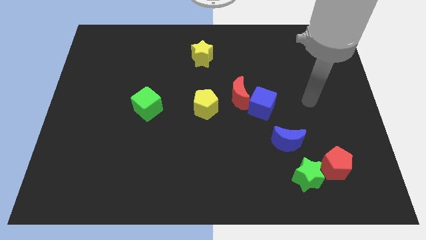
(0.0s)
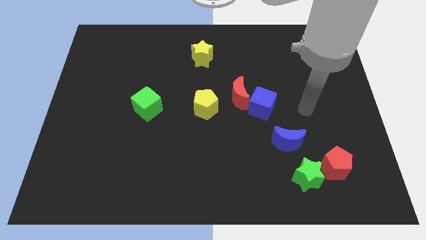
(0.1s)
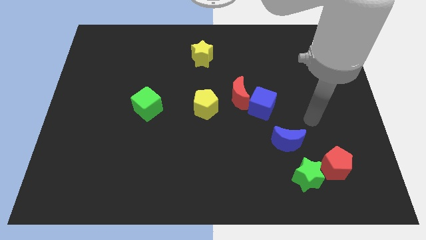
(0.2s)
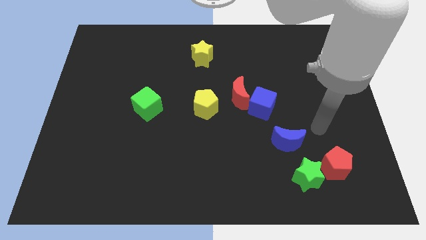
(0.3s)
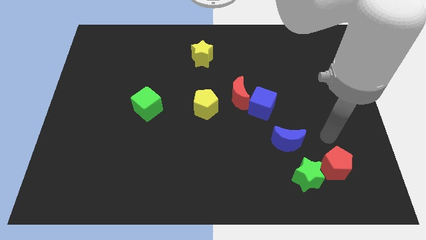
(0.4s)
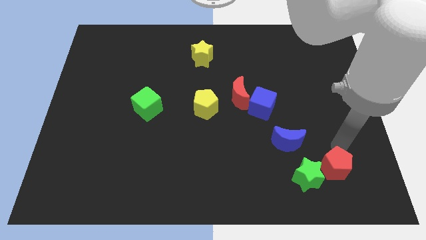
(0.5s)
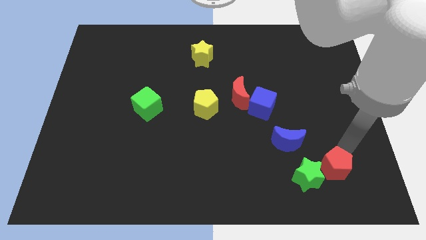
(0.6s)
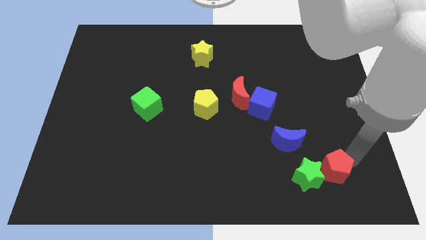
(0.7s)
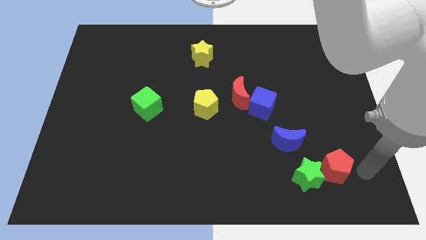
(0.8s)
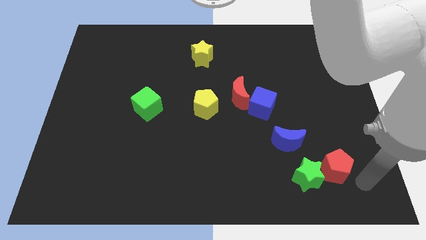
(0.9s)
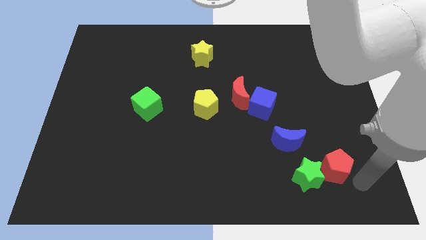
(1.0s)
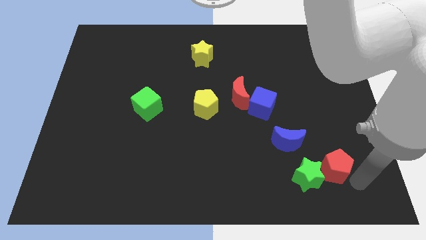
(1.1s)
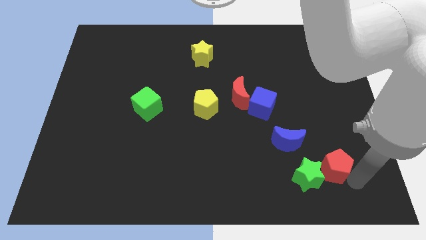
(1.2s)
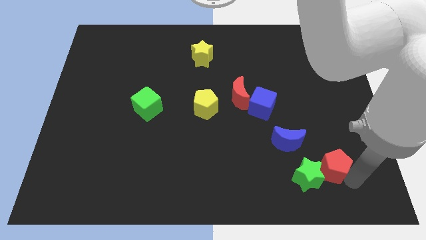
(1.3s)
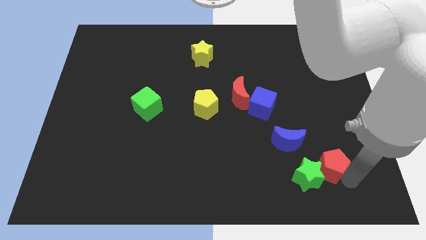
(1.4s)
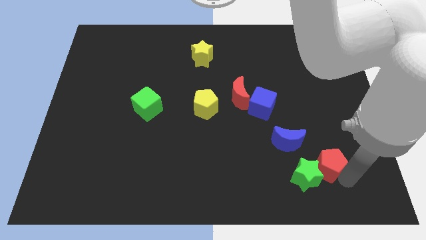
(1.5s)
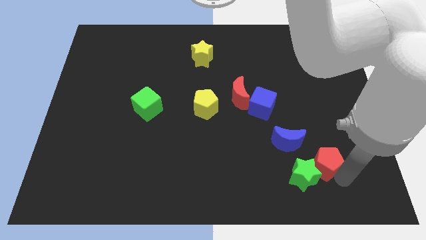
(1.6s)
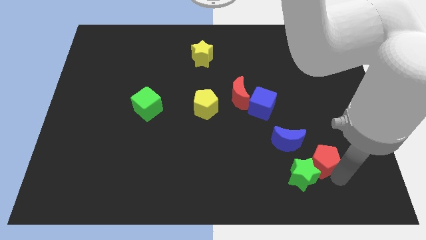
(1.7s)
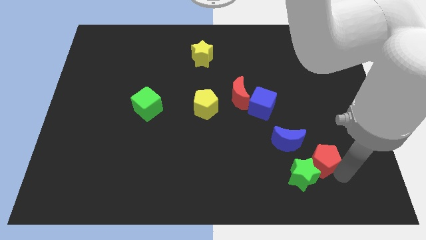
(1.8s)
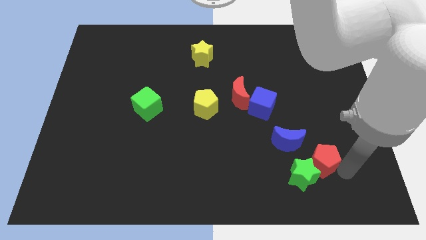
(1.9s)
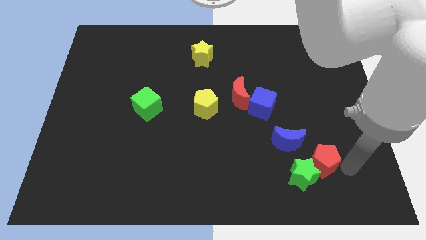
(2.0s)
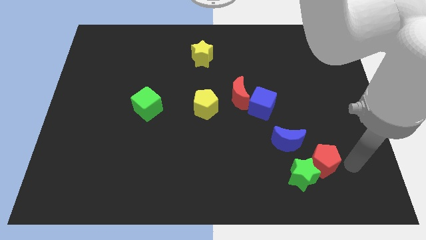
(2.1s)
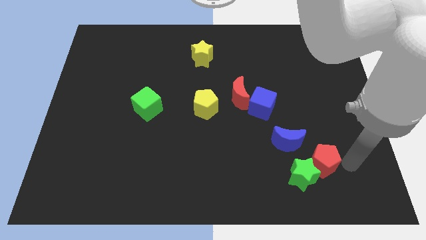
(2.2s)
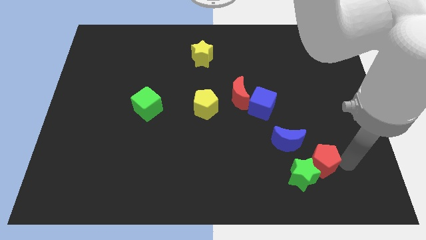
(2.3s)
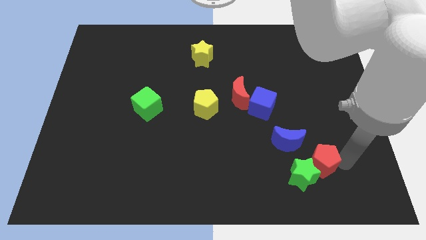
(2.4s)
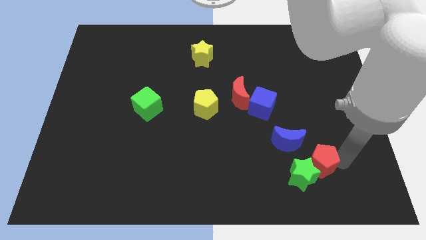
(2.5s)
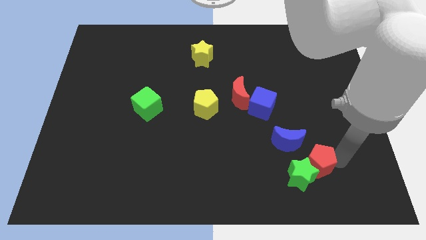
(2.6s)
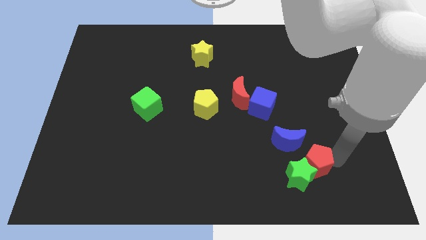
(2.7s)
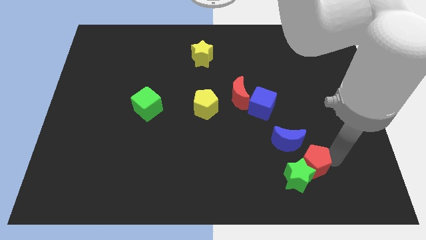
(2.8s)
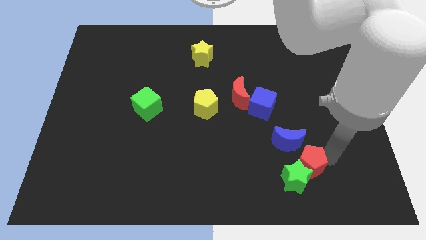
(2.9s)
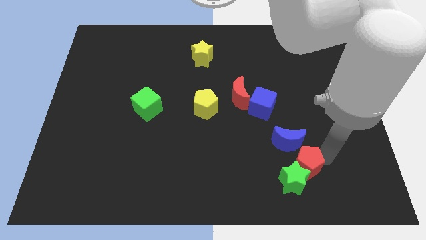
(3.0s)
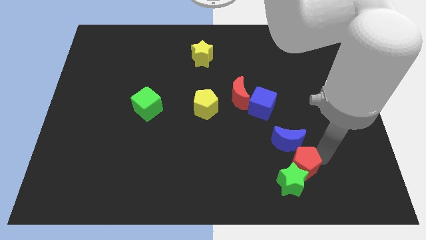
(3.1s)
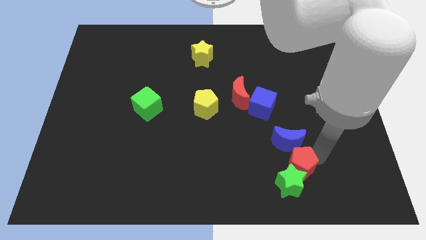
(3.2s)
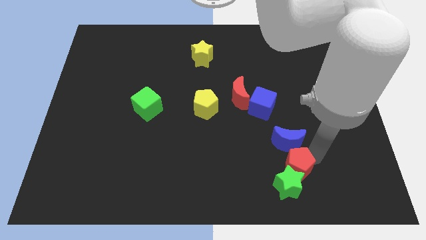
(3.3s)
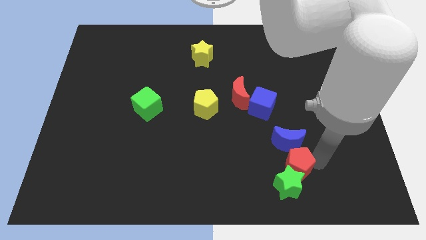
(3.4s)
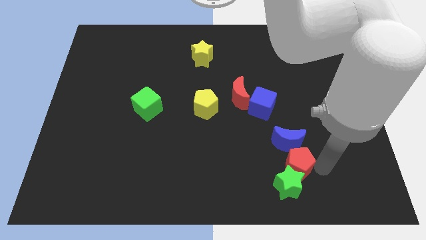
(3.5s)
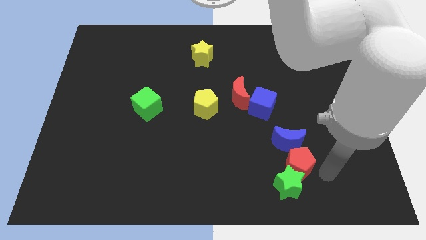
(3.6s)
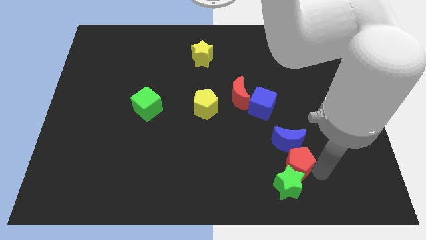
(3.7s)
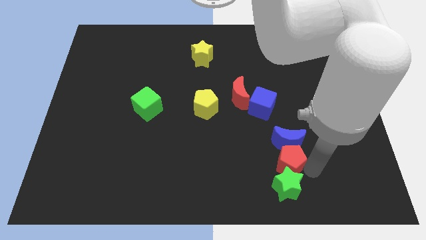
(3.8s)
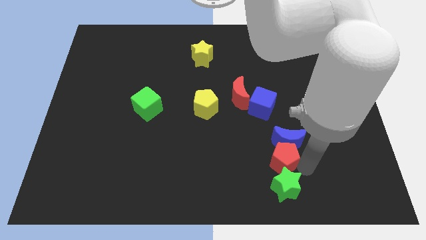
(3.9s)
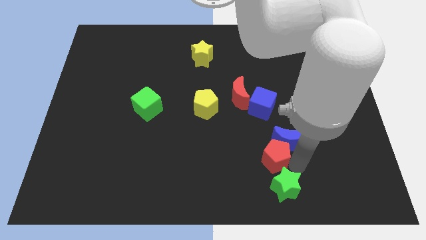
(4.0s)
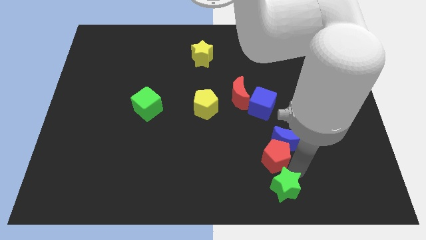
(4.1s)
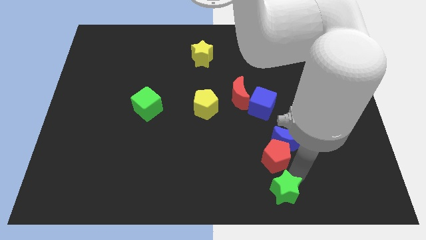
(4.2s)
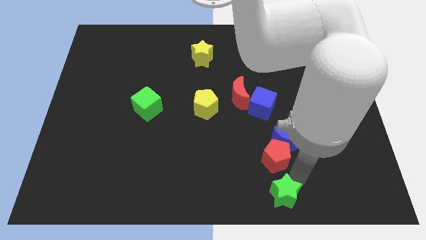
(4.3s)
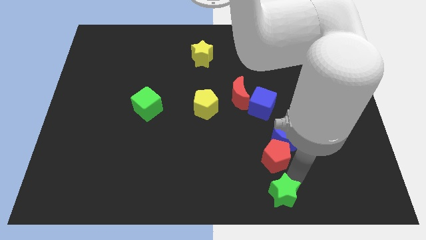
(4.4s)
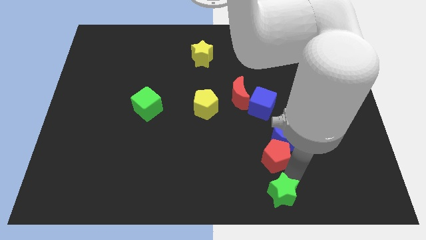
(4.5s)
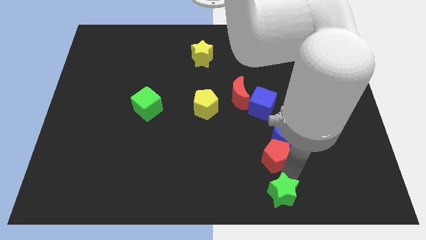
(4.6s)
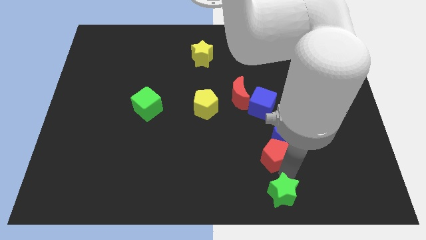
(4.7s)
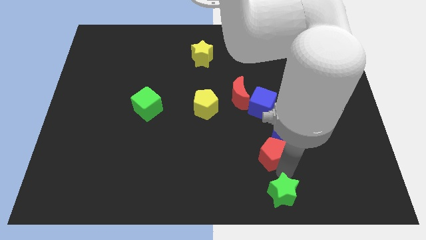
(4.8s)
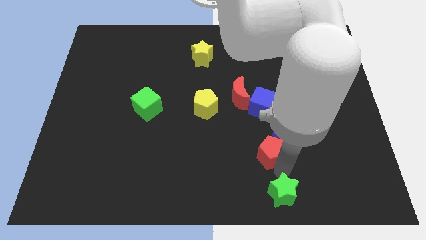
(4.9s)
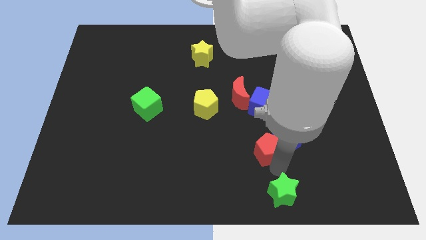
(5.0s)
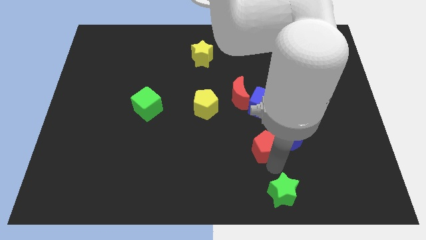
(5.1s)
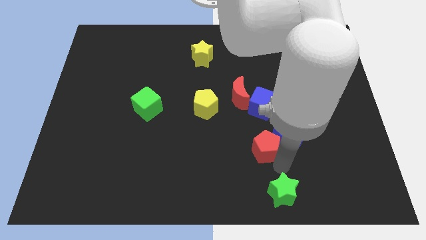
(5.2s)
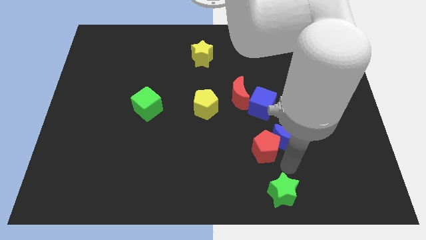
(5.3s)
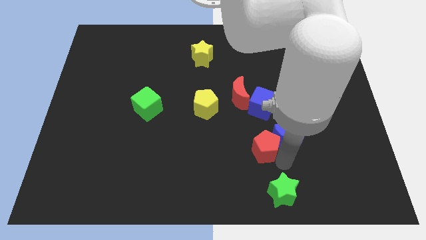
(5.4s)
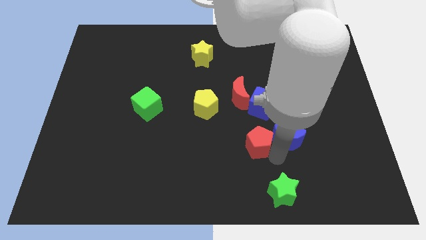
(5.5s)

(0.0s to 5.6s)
put the red pentagon below the red moon

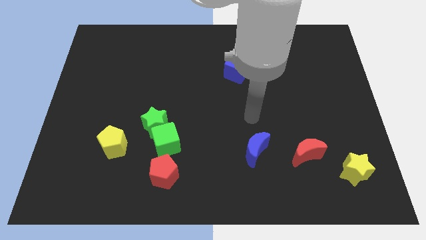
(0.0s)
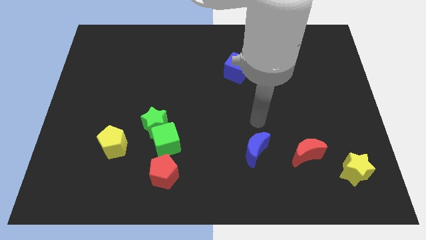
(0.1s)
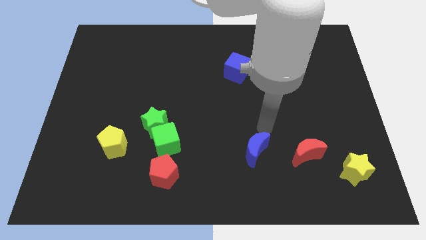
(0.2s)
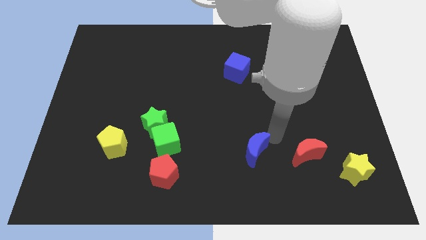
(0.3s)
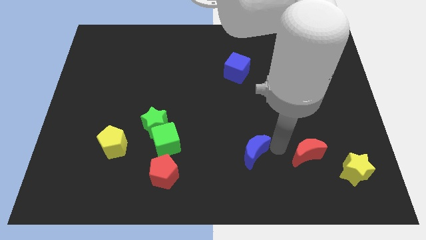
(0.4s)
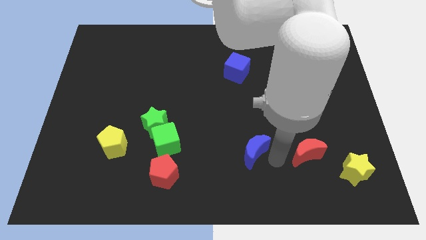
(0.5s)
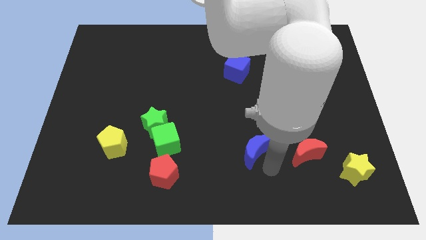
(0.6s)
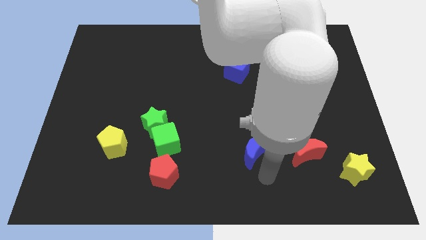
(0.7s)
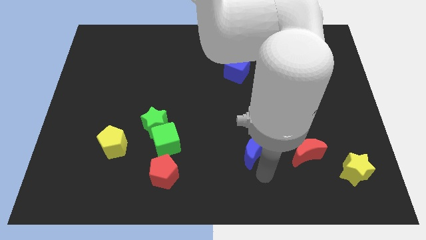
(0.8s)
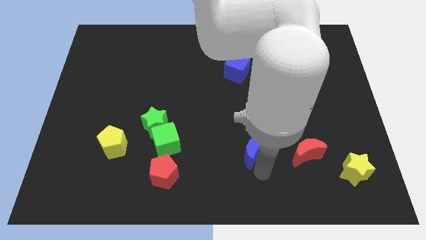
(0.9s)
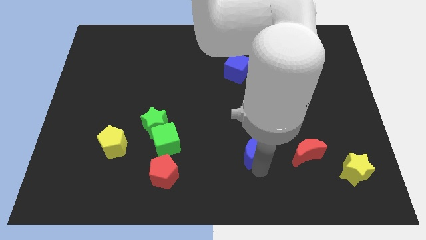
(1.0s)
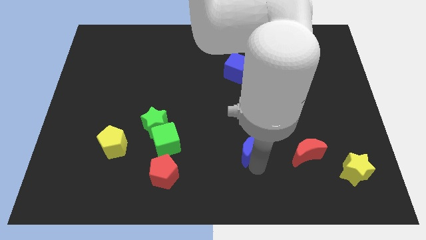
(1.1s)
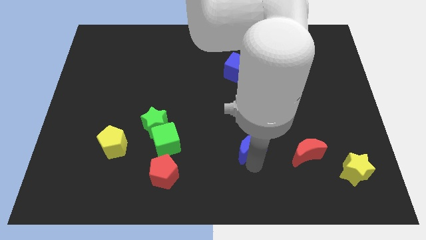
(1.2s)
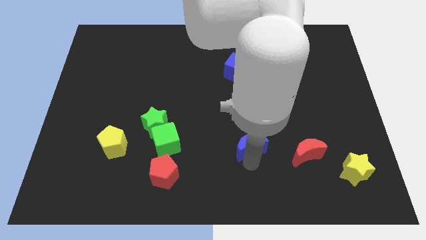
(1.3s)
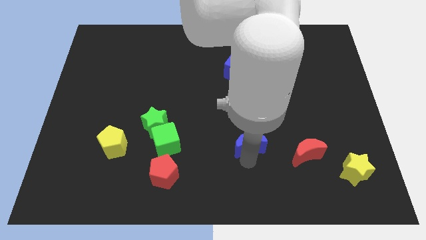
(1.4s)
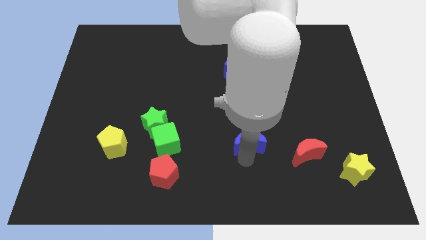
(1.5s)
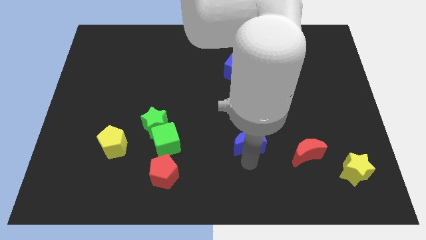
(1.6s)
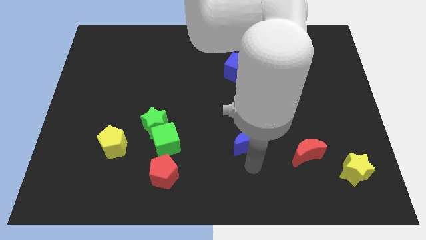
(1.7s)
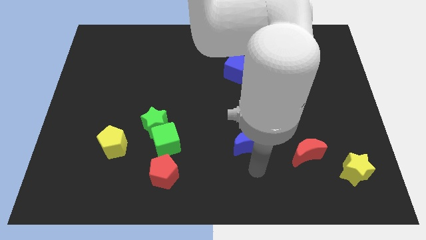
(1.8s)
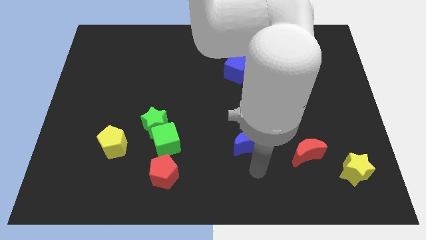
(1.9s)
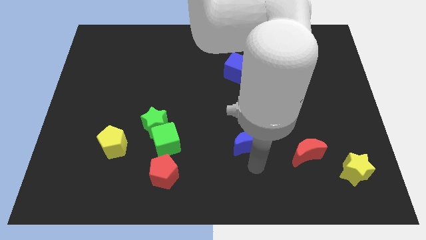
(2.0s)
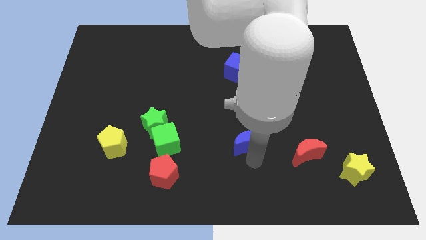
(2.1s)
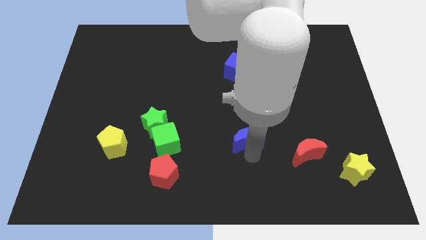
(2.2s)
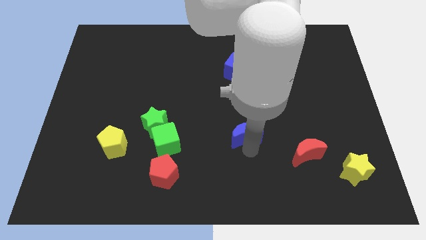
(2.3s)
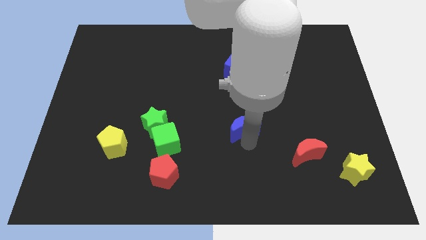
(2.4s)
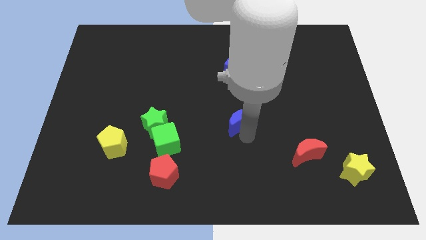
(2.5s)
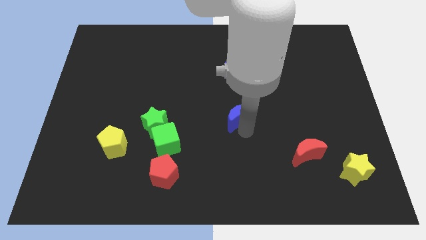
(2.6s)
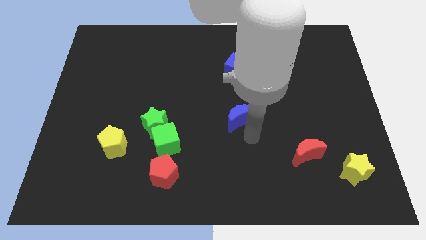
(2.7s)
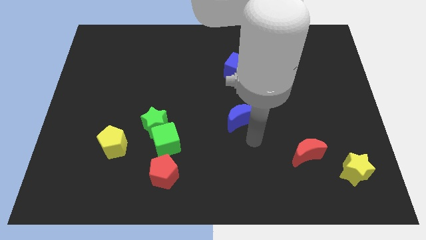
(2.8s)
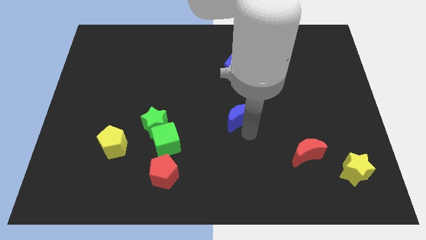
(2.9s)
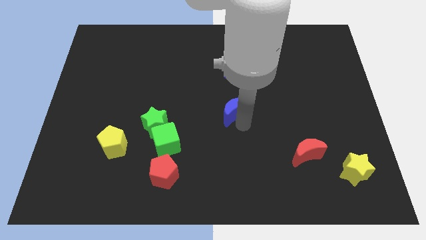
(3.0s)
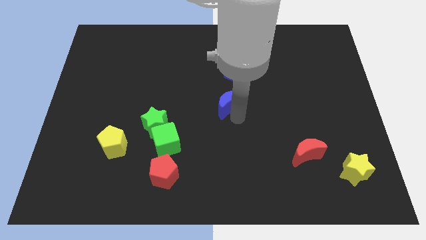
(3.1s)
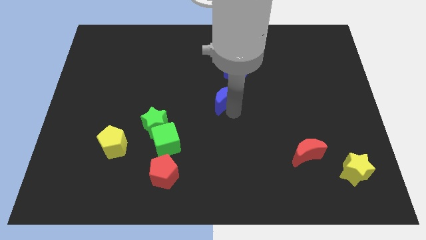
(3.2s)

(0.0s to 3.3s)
move the blue moon to the bottom left of the blue cube
